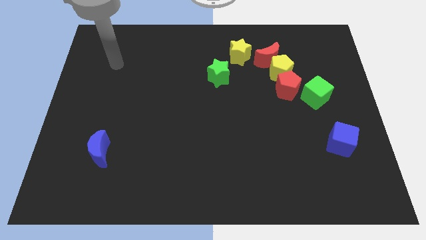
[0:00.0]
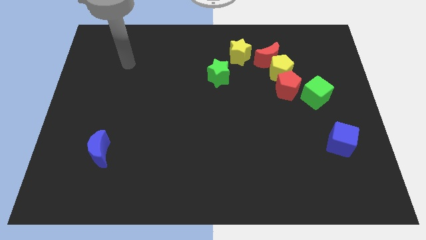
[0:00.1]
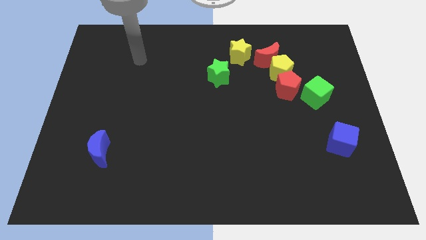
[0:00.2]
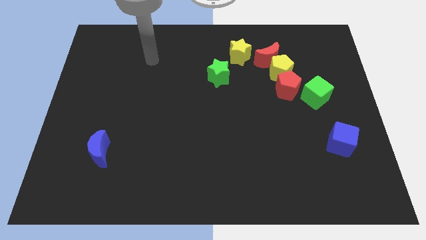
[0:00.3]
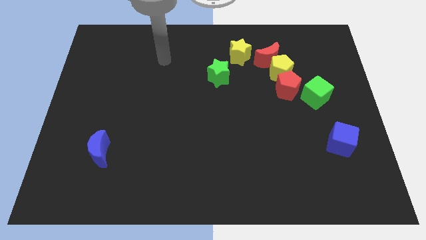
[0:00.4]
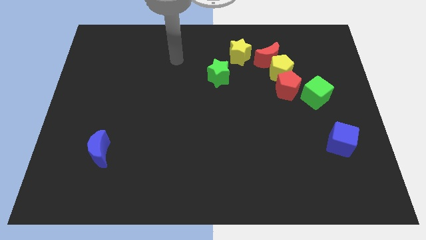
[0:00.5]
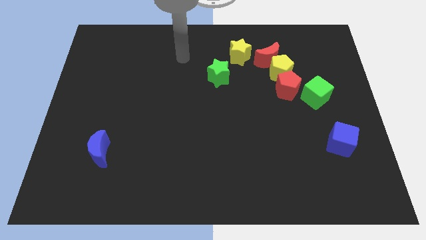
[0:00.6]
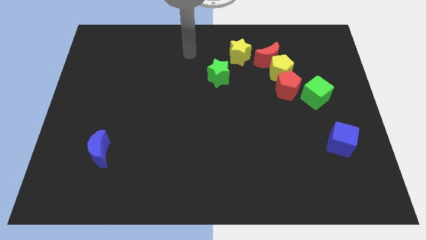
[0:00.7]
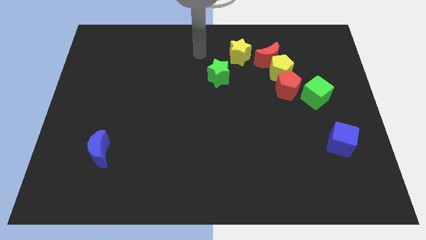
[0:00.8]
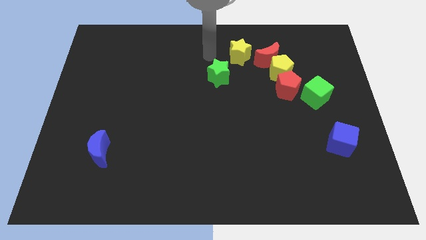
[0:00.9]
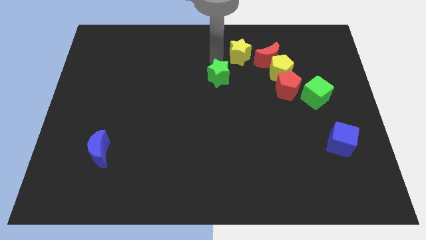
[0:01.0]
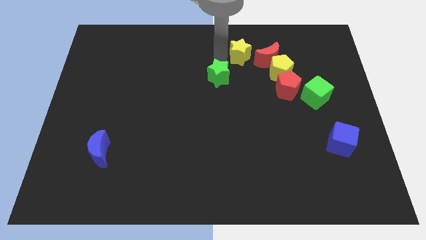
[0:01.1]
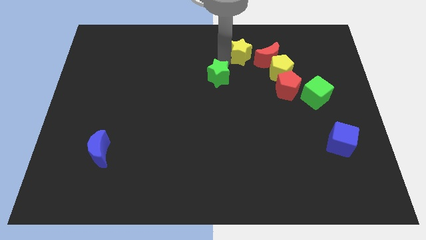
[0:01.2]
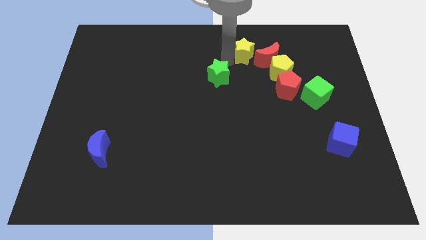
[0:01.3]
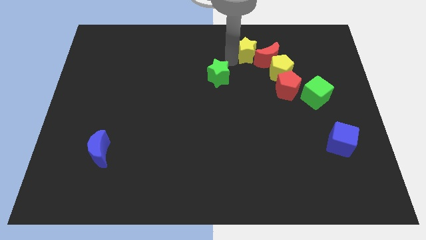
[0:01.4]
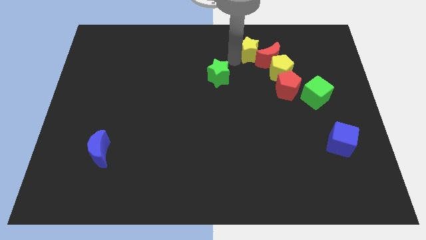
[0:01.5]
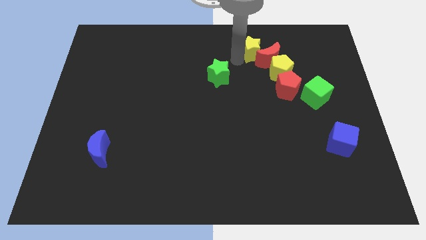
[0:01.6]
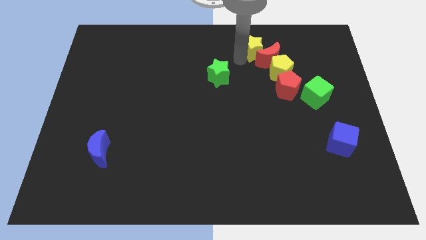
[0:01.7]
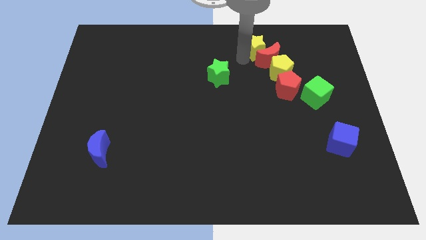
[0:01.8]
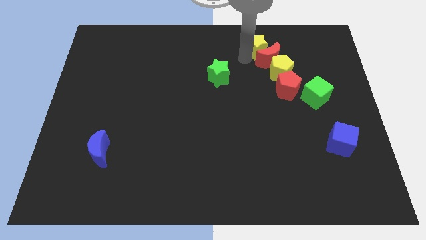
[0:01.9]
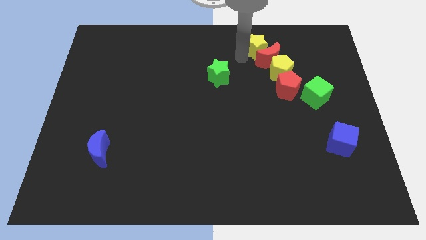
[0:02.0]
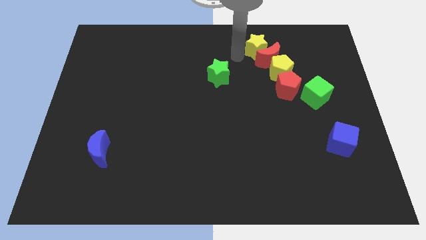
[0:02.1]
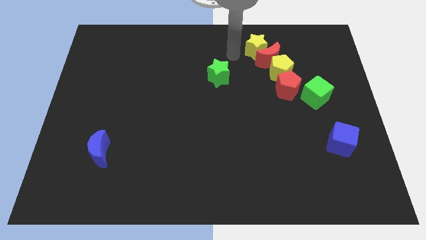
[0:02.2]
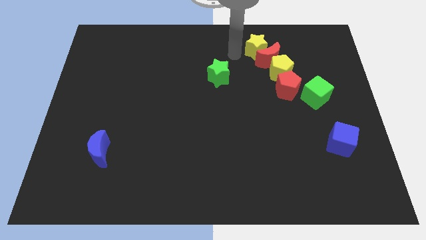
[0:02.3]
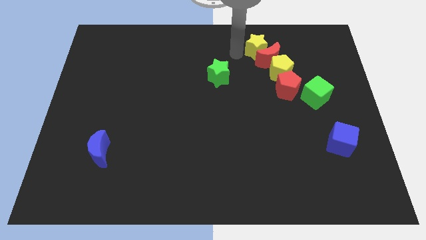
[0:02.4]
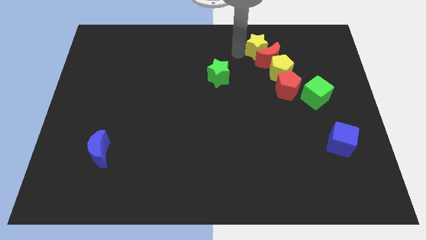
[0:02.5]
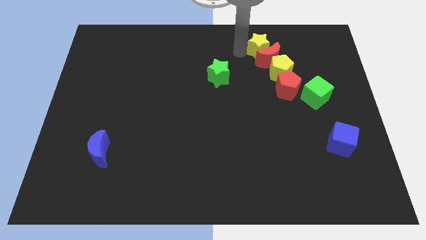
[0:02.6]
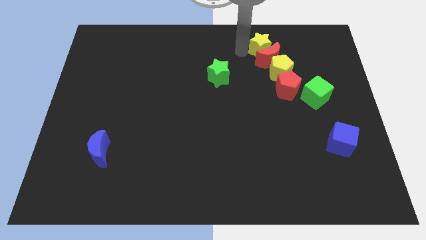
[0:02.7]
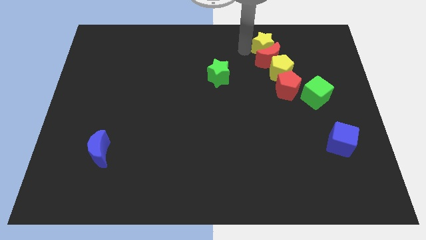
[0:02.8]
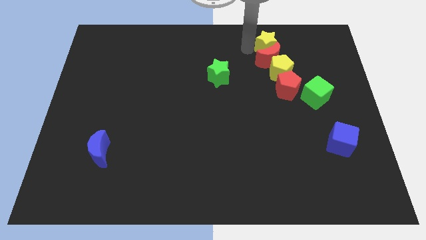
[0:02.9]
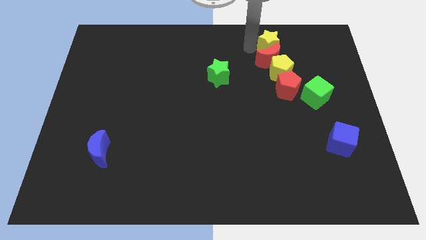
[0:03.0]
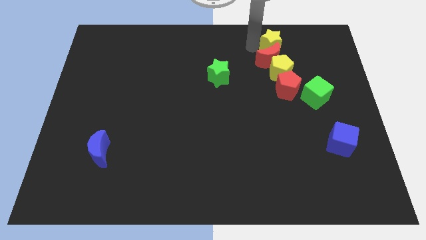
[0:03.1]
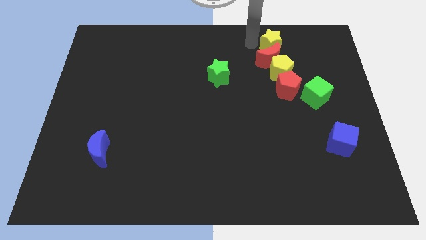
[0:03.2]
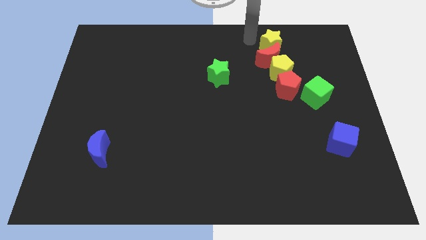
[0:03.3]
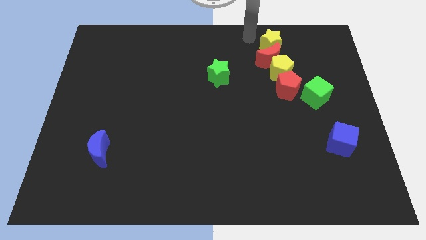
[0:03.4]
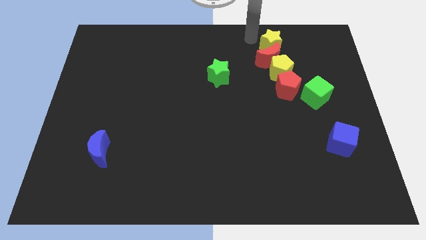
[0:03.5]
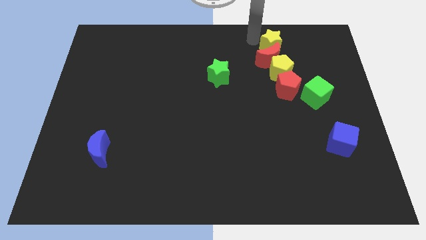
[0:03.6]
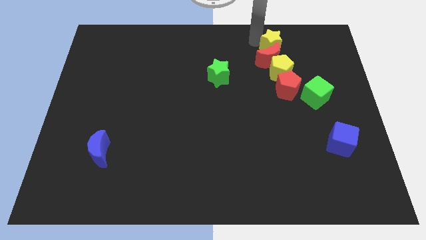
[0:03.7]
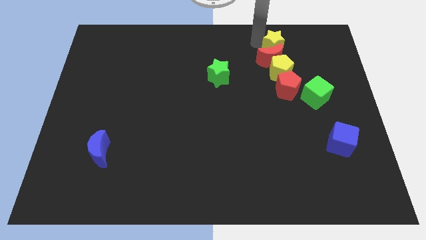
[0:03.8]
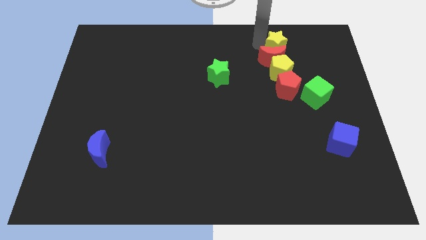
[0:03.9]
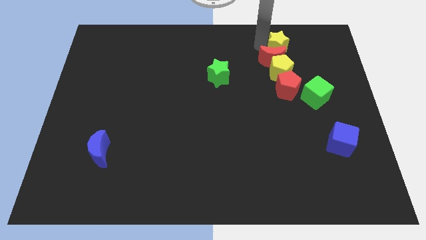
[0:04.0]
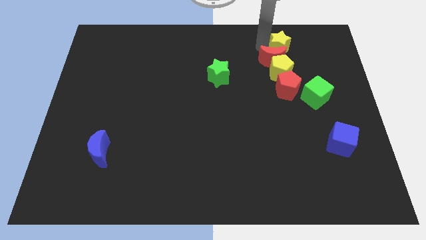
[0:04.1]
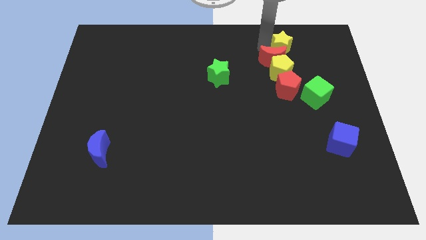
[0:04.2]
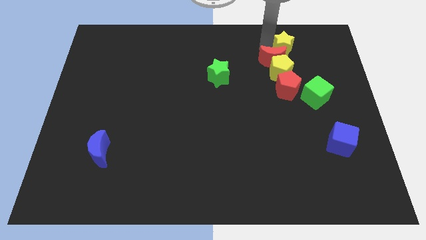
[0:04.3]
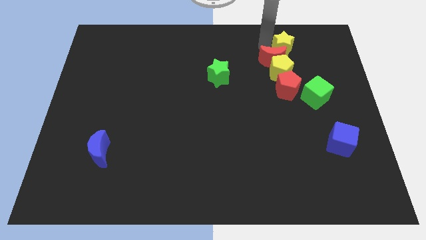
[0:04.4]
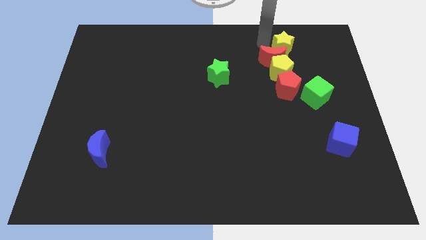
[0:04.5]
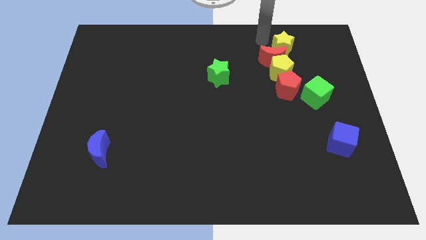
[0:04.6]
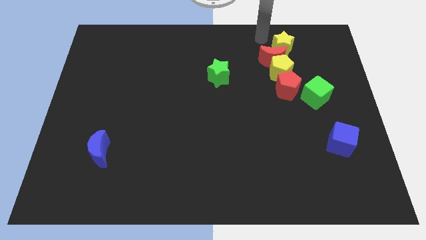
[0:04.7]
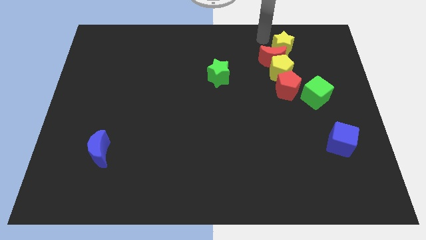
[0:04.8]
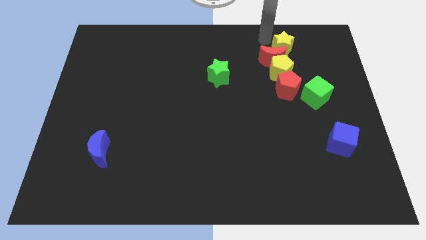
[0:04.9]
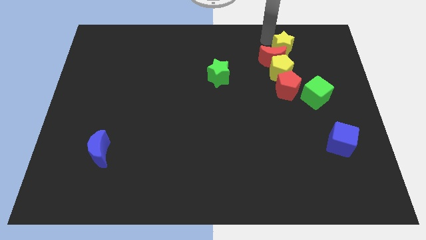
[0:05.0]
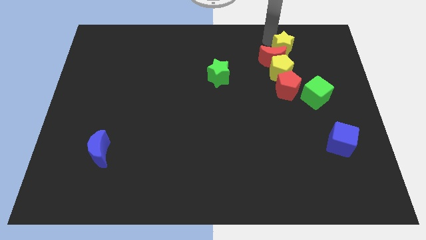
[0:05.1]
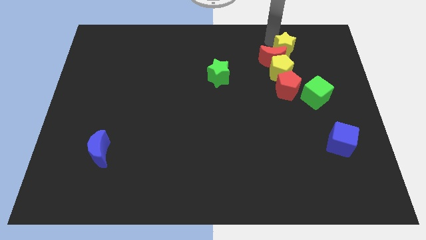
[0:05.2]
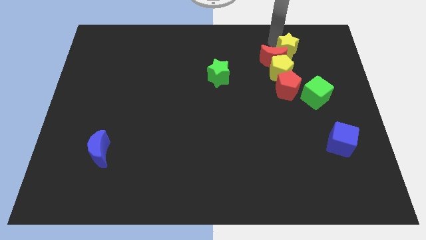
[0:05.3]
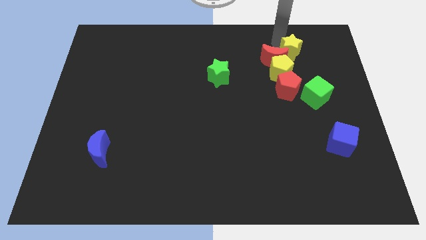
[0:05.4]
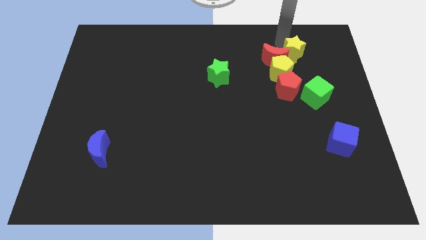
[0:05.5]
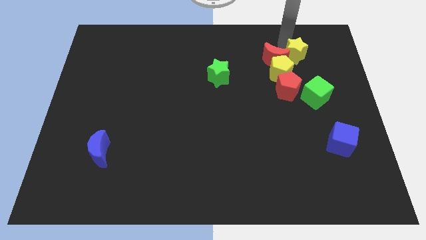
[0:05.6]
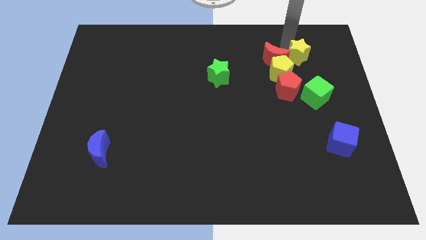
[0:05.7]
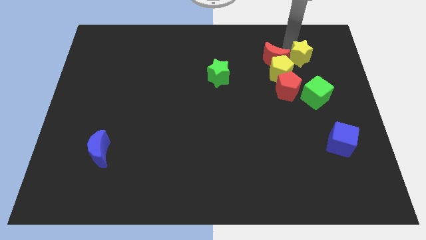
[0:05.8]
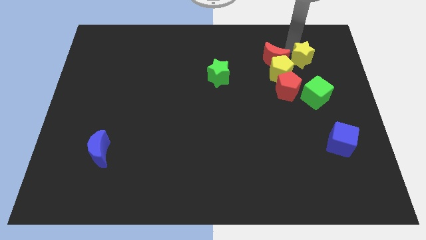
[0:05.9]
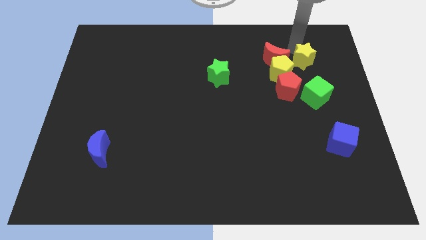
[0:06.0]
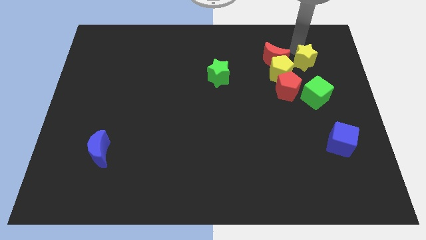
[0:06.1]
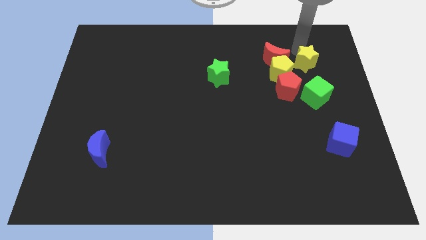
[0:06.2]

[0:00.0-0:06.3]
move the yellow star diagonally down and to the right of the red moon
